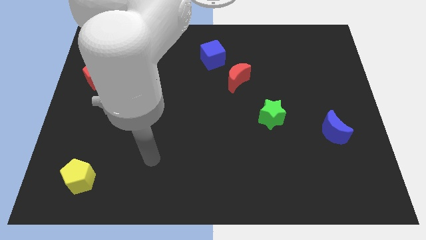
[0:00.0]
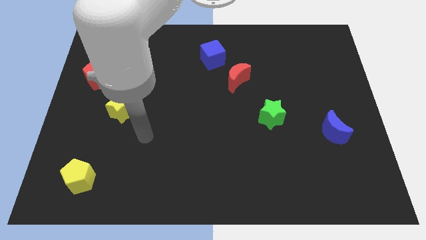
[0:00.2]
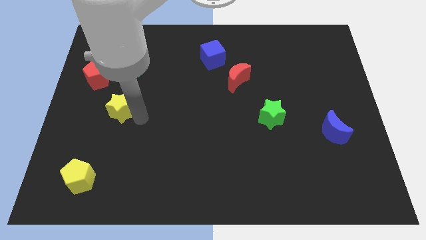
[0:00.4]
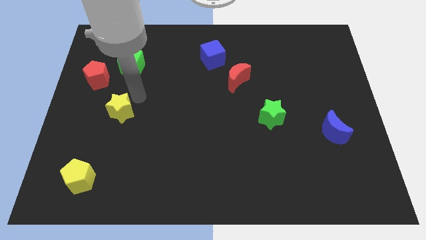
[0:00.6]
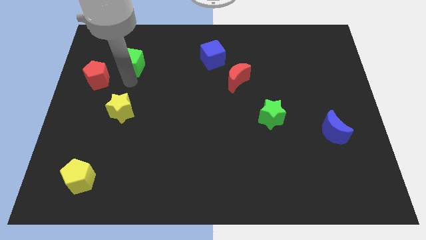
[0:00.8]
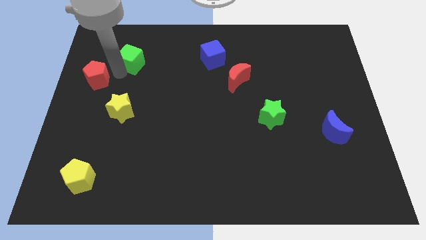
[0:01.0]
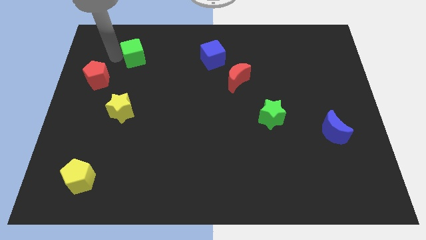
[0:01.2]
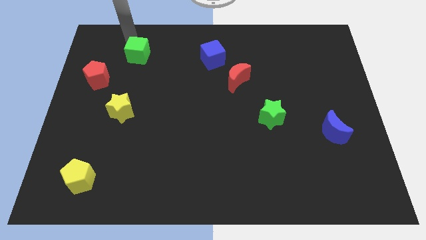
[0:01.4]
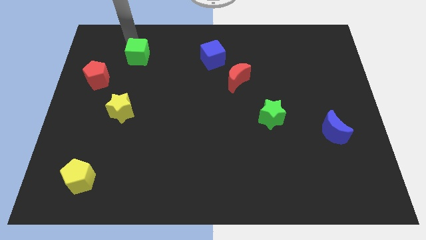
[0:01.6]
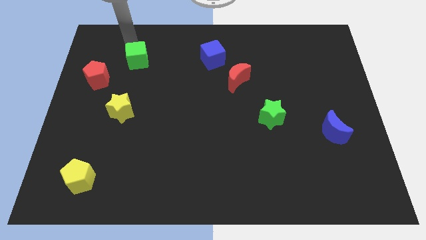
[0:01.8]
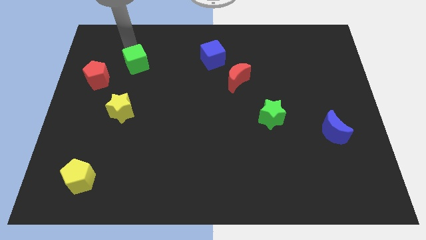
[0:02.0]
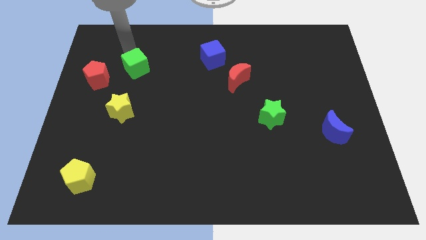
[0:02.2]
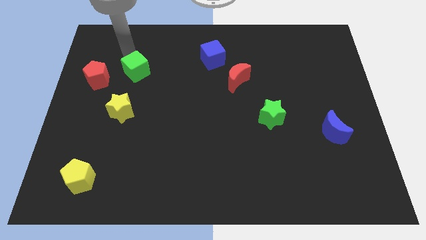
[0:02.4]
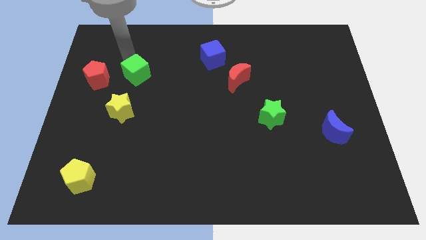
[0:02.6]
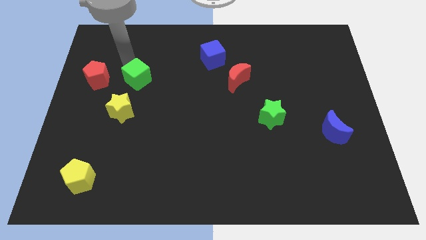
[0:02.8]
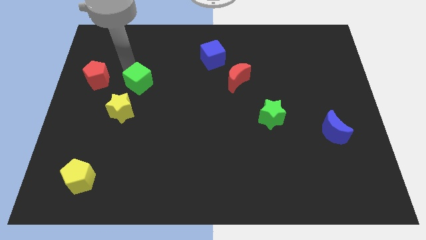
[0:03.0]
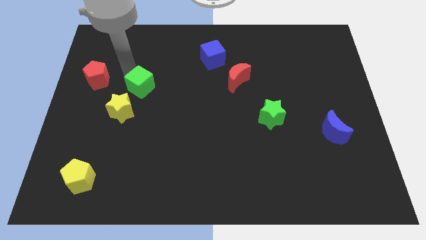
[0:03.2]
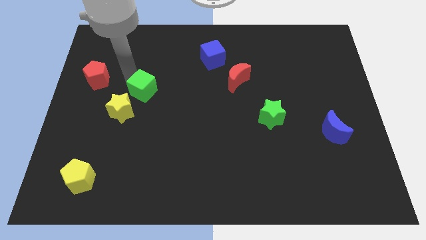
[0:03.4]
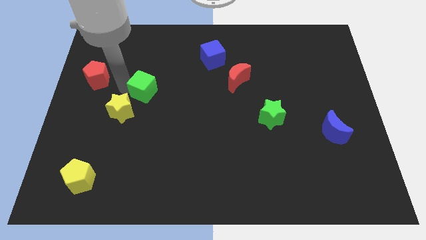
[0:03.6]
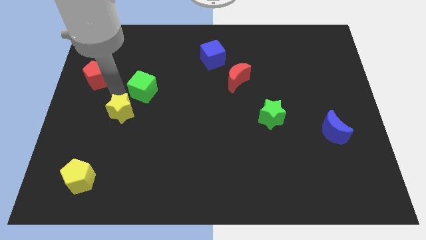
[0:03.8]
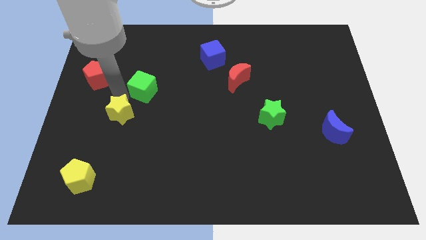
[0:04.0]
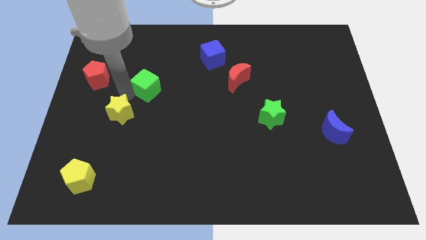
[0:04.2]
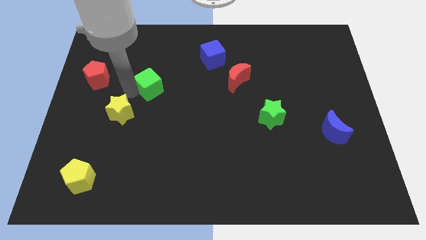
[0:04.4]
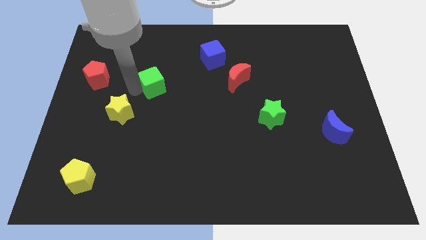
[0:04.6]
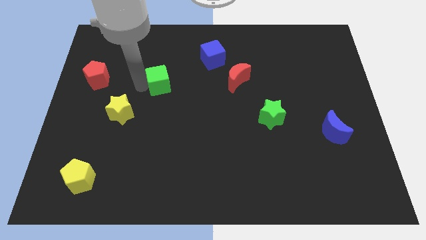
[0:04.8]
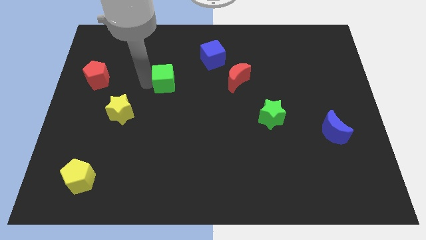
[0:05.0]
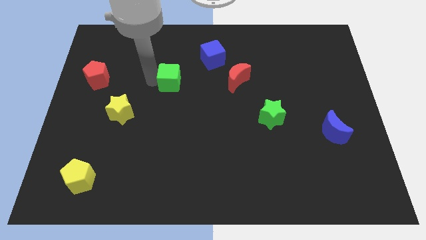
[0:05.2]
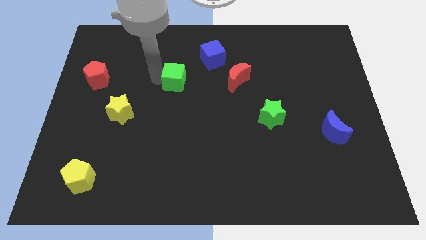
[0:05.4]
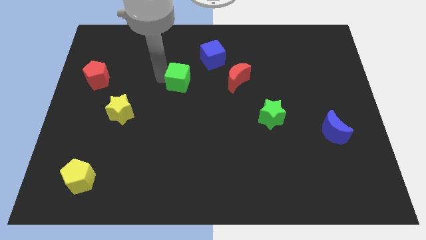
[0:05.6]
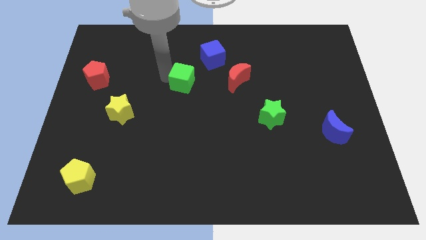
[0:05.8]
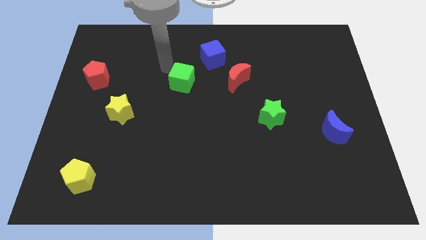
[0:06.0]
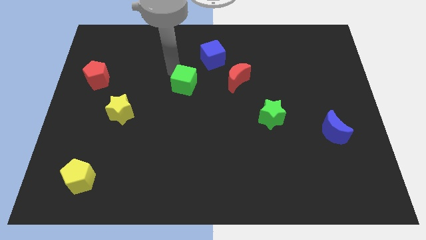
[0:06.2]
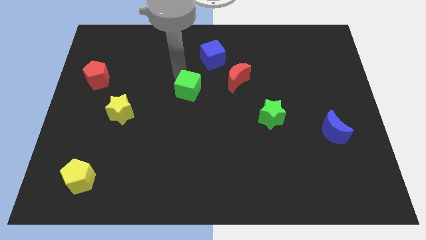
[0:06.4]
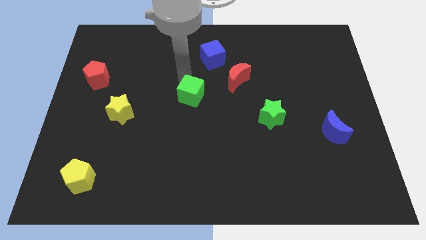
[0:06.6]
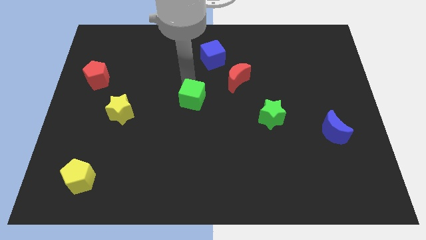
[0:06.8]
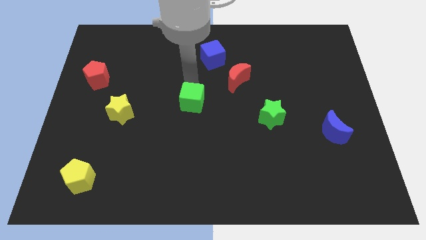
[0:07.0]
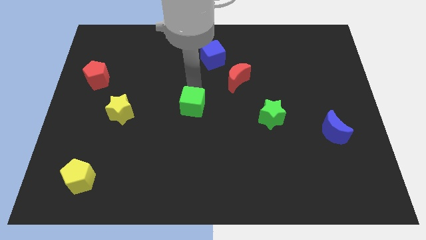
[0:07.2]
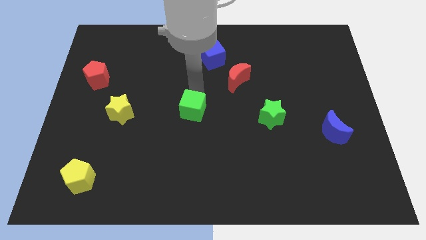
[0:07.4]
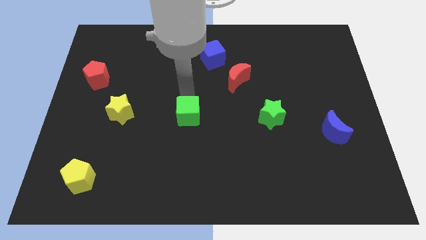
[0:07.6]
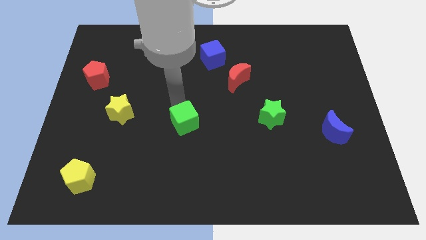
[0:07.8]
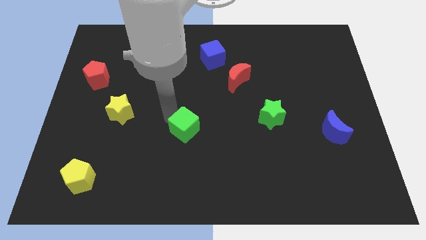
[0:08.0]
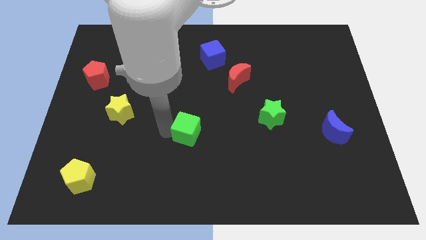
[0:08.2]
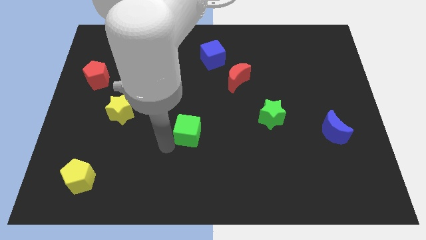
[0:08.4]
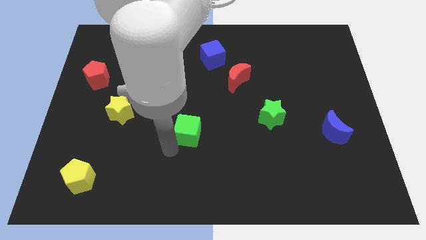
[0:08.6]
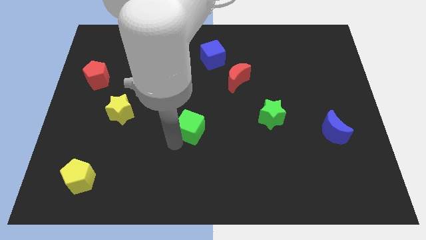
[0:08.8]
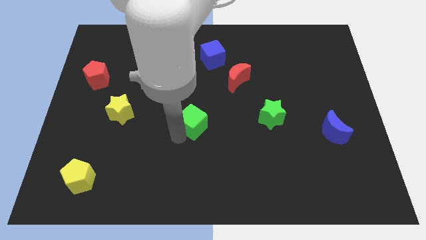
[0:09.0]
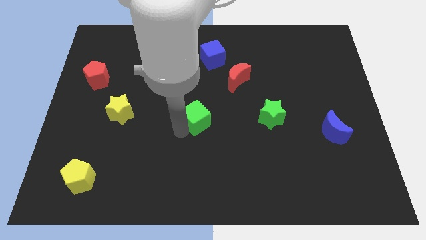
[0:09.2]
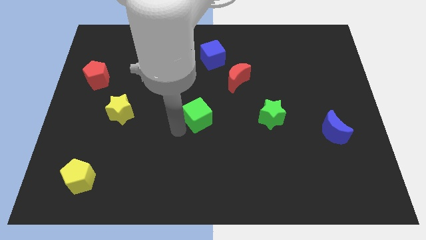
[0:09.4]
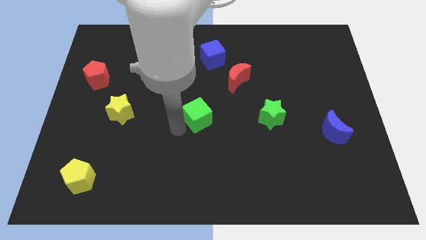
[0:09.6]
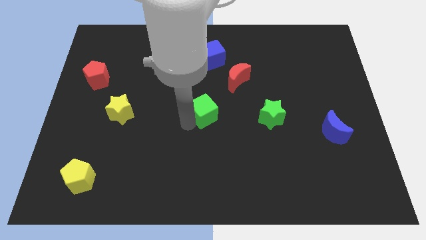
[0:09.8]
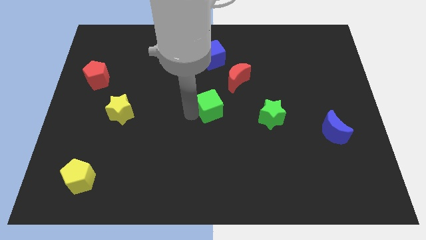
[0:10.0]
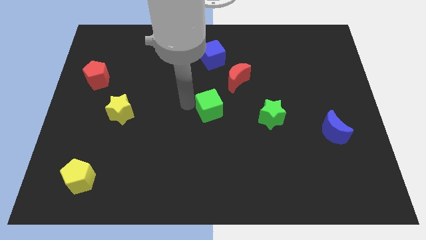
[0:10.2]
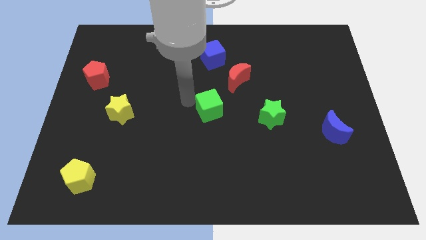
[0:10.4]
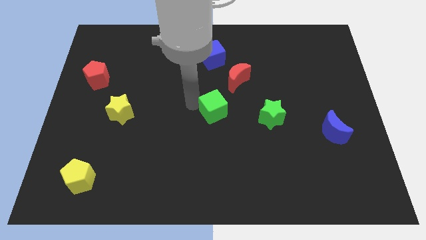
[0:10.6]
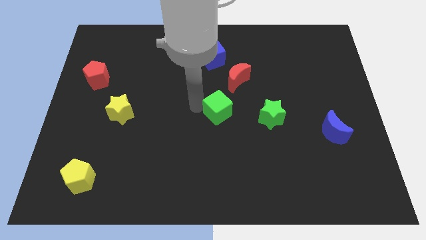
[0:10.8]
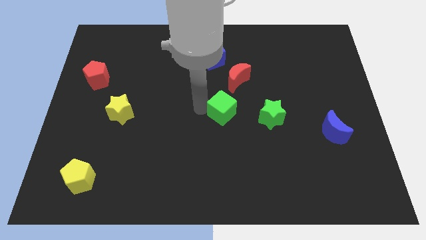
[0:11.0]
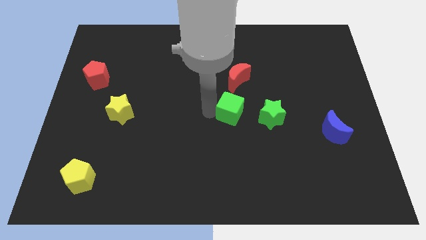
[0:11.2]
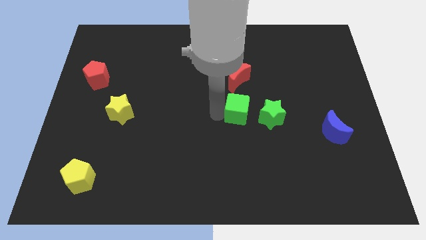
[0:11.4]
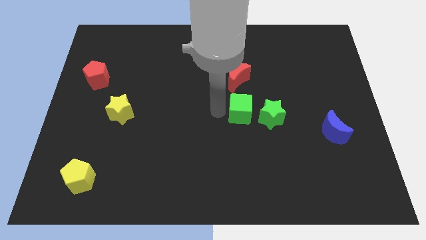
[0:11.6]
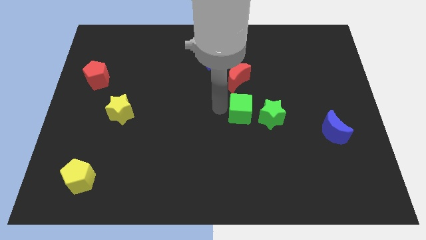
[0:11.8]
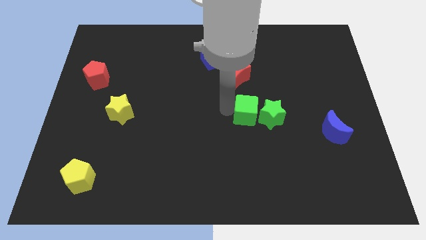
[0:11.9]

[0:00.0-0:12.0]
put the green cube next to the green star

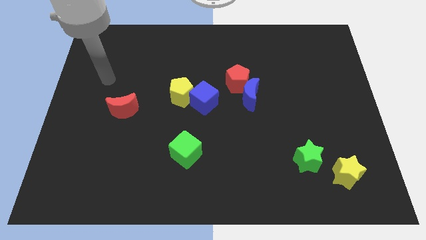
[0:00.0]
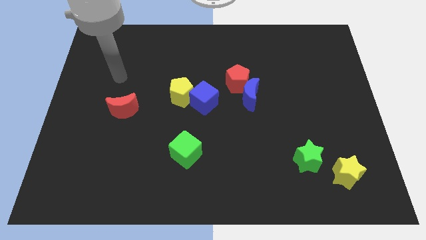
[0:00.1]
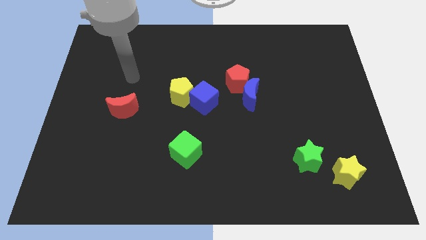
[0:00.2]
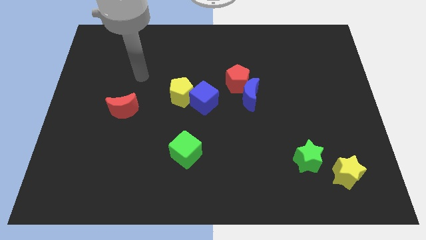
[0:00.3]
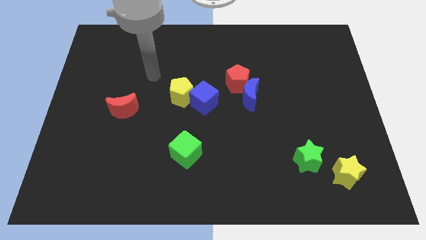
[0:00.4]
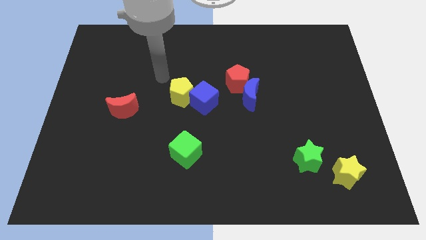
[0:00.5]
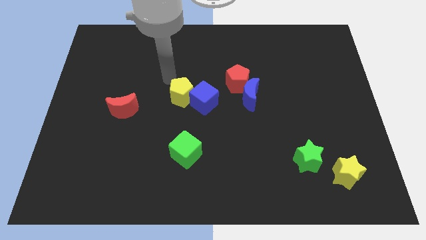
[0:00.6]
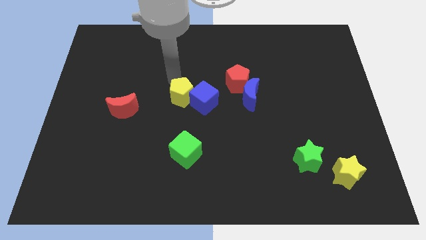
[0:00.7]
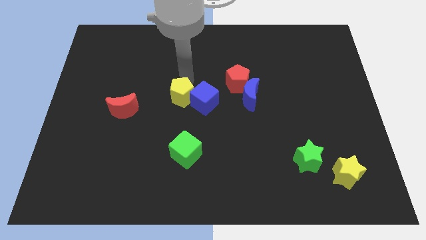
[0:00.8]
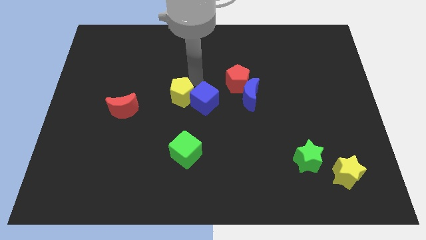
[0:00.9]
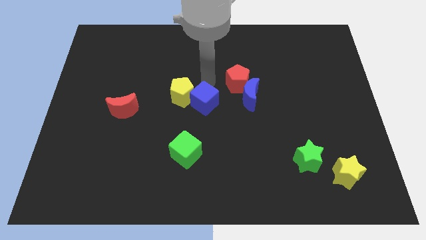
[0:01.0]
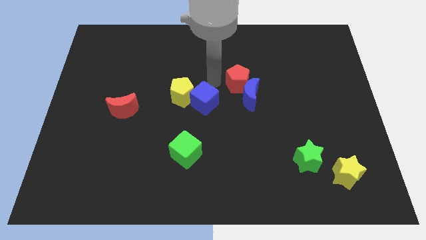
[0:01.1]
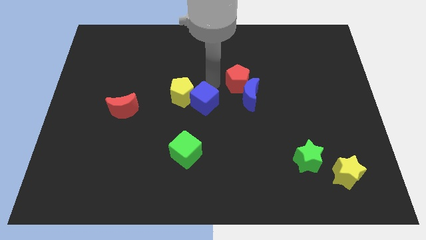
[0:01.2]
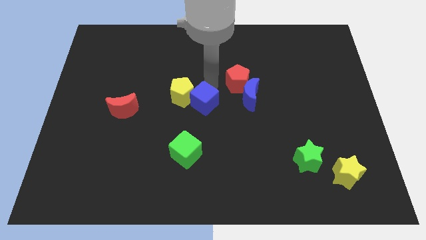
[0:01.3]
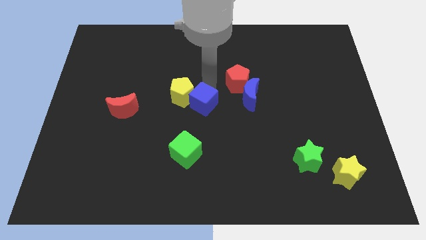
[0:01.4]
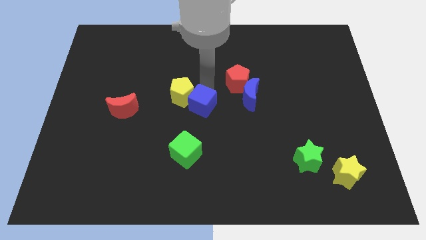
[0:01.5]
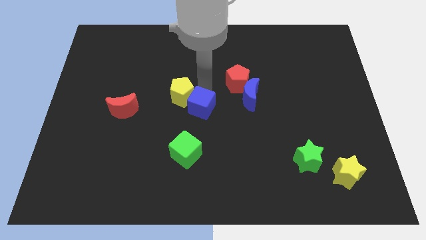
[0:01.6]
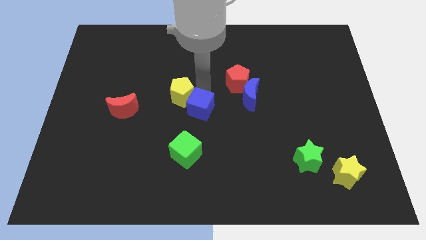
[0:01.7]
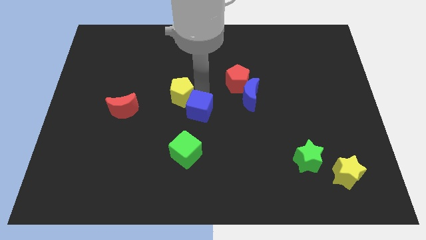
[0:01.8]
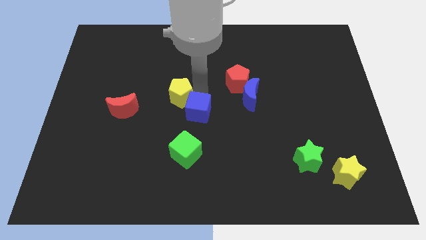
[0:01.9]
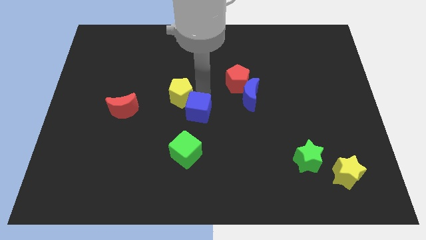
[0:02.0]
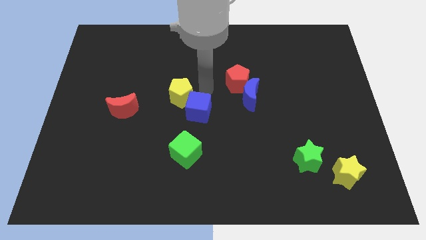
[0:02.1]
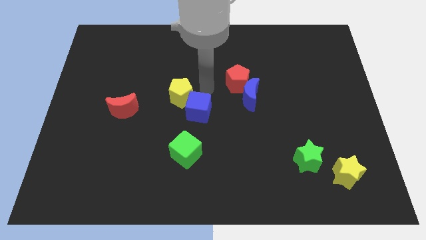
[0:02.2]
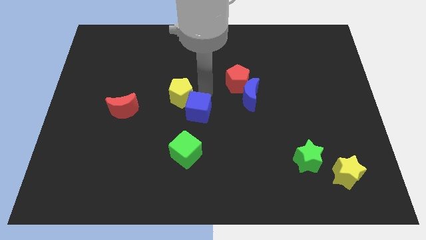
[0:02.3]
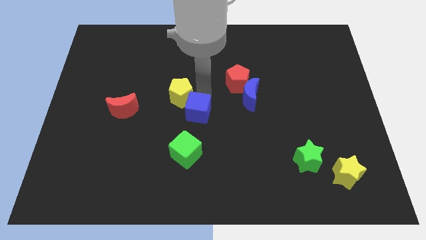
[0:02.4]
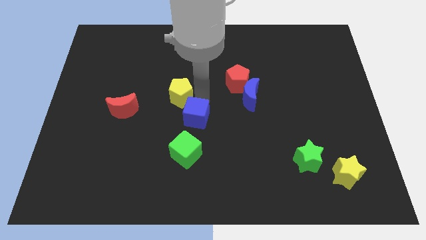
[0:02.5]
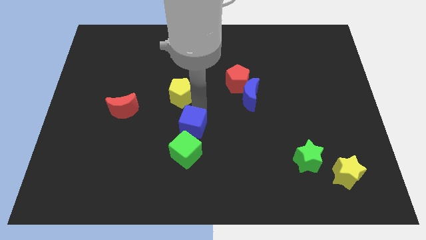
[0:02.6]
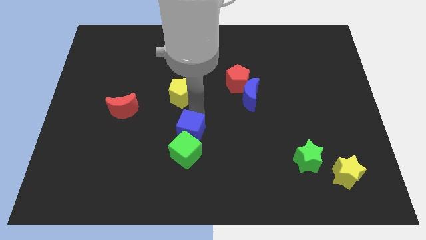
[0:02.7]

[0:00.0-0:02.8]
put the blue cube to the green cube

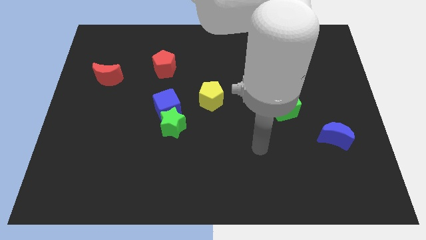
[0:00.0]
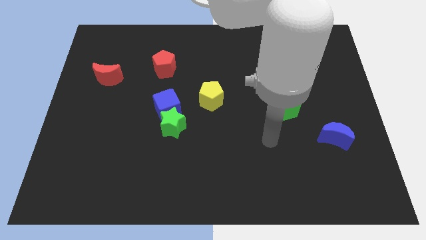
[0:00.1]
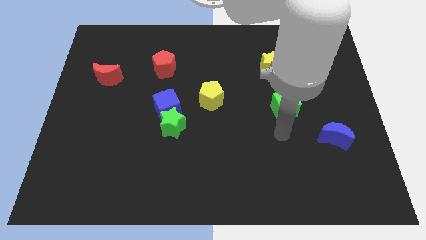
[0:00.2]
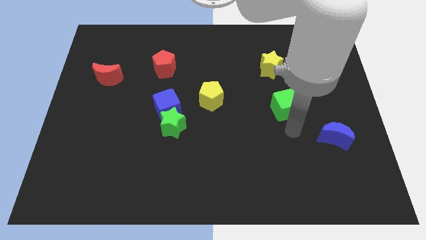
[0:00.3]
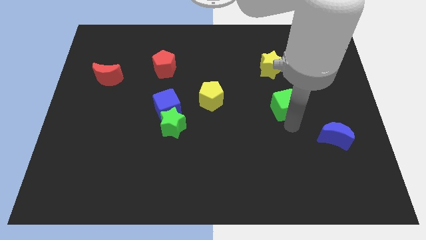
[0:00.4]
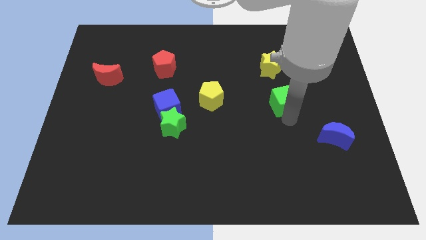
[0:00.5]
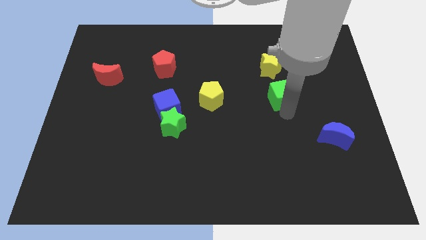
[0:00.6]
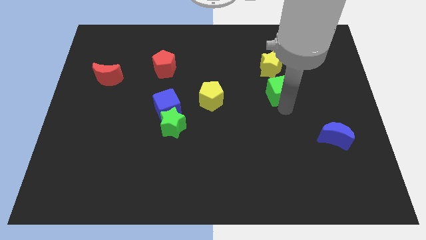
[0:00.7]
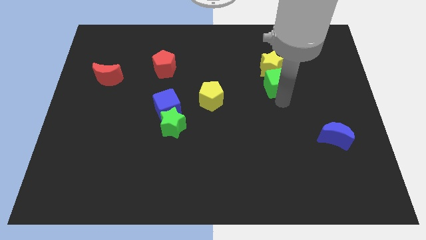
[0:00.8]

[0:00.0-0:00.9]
push the green cube towards the yellow star
